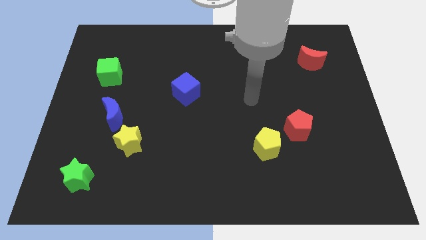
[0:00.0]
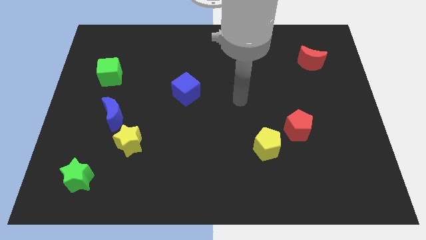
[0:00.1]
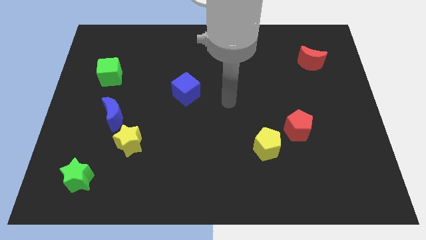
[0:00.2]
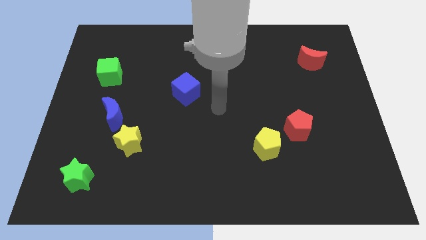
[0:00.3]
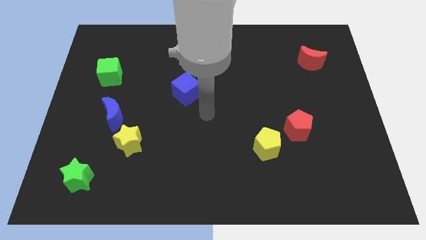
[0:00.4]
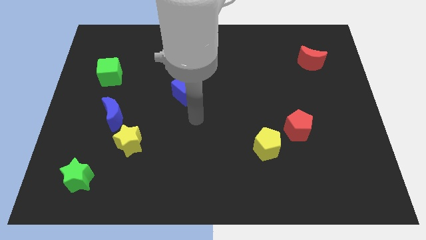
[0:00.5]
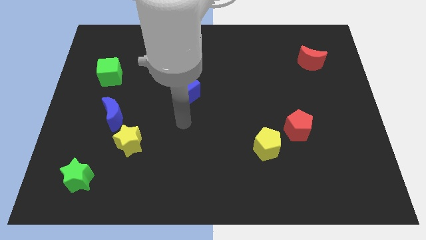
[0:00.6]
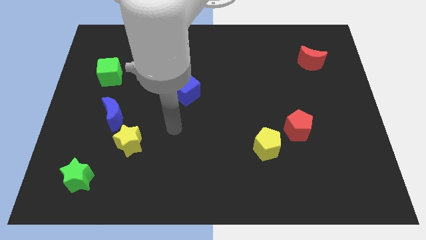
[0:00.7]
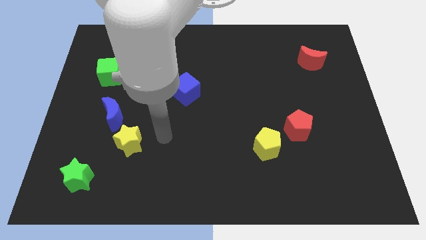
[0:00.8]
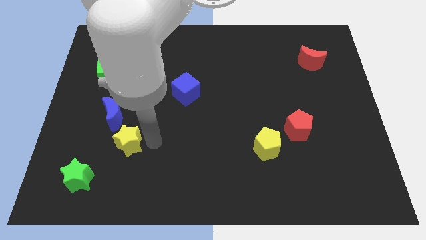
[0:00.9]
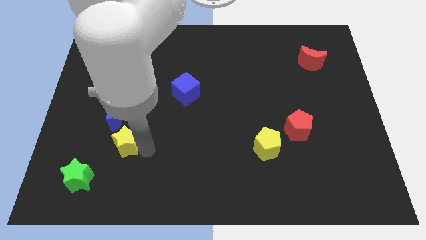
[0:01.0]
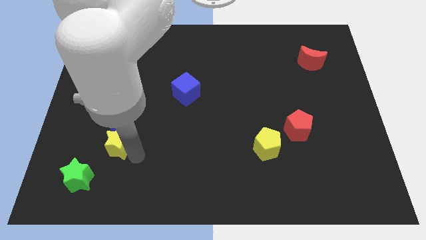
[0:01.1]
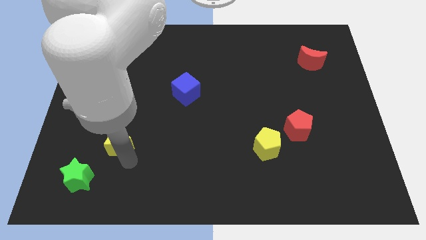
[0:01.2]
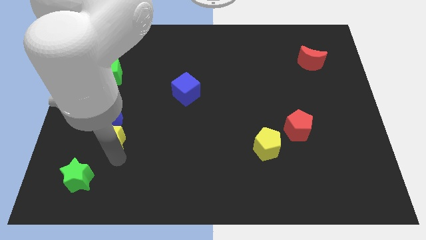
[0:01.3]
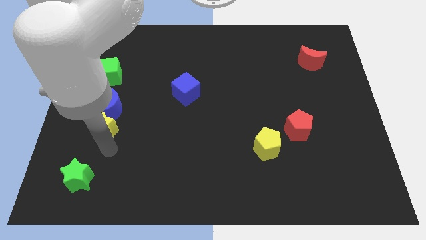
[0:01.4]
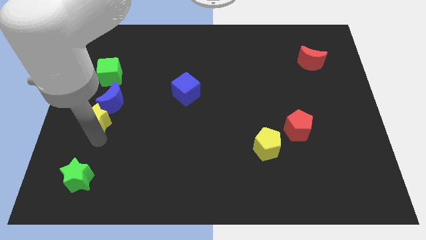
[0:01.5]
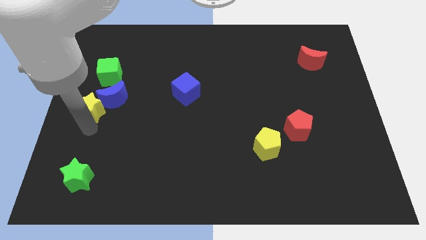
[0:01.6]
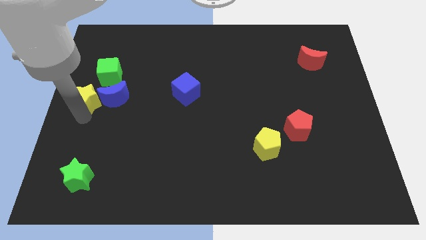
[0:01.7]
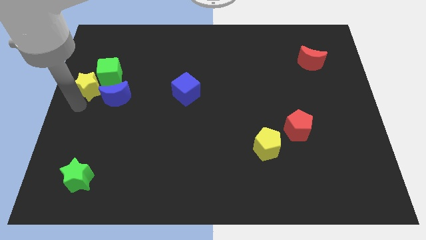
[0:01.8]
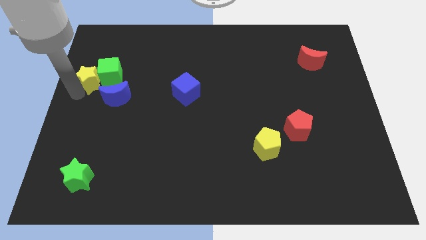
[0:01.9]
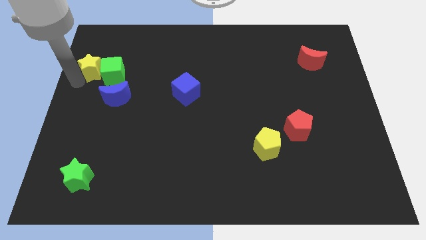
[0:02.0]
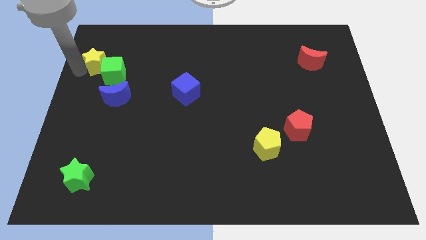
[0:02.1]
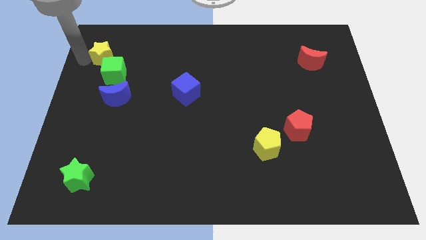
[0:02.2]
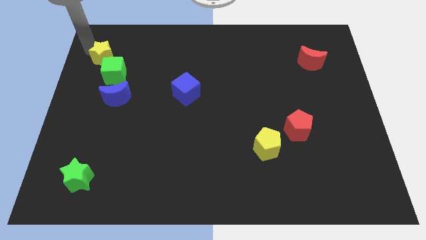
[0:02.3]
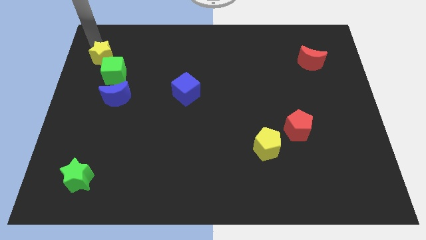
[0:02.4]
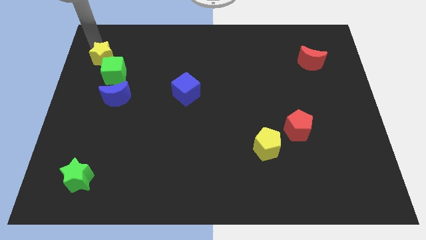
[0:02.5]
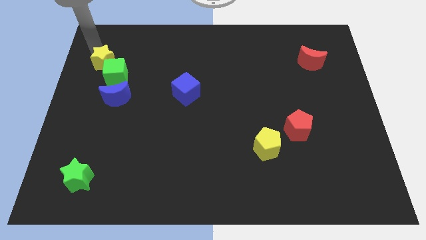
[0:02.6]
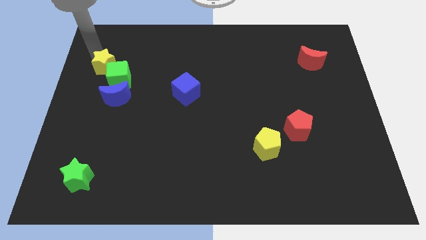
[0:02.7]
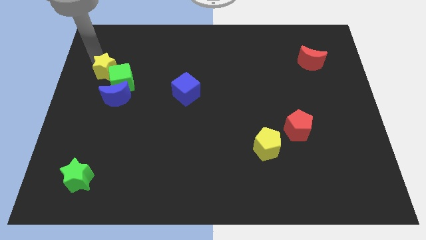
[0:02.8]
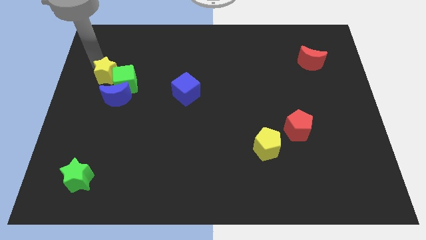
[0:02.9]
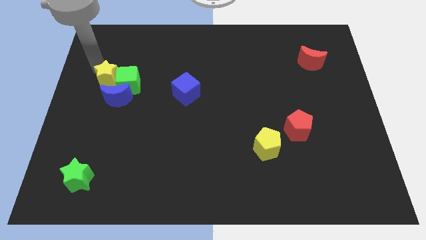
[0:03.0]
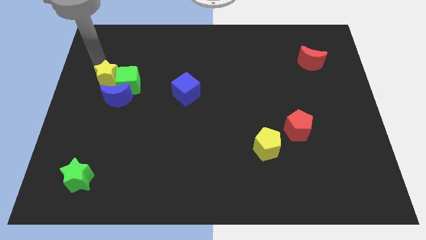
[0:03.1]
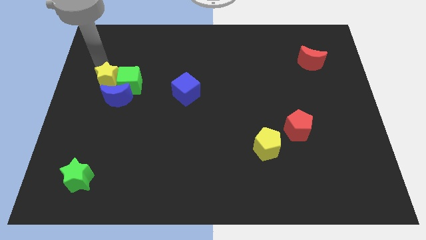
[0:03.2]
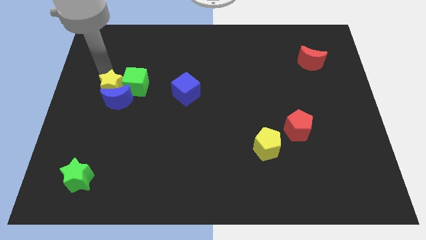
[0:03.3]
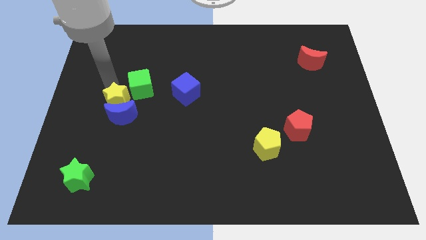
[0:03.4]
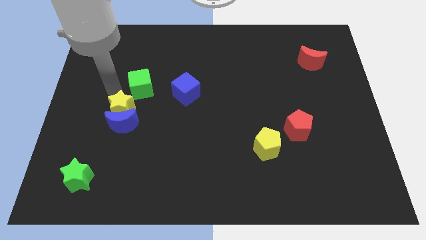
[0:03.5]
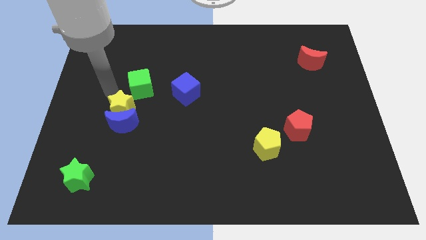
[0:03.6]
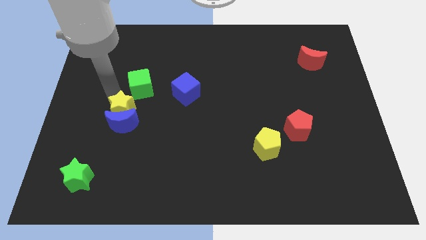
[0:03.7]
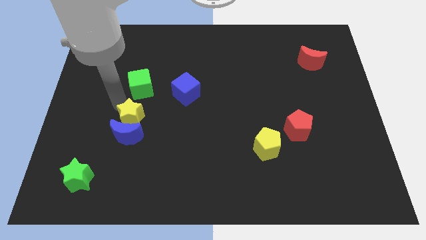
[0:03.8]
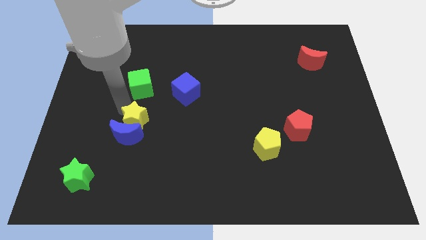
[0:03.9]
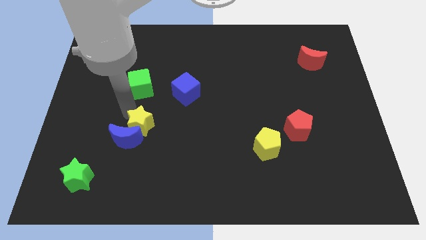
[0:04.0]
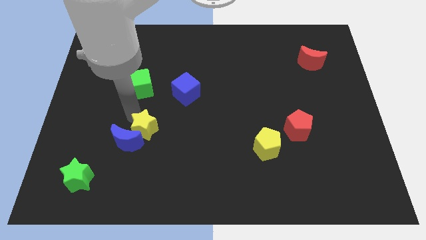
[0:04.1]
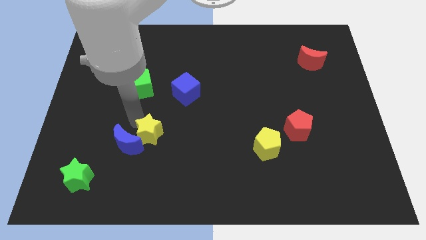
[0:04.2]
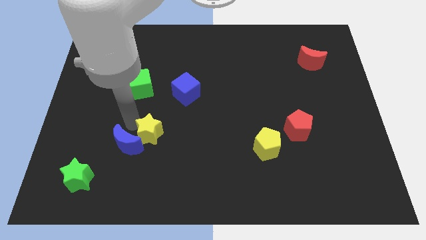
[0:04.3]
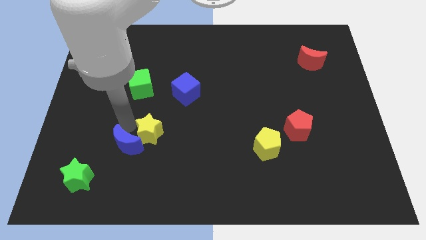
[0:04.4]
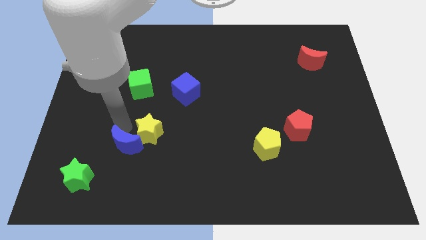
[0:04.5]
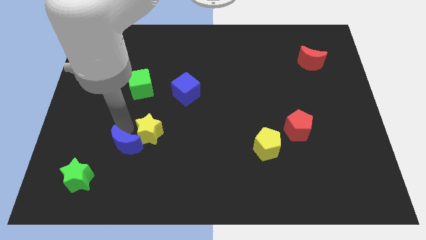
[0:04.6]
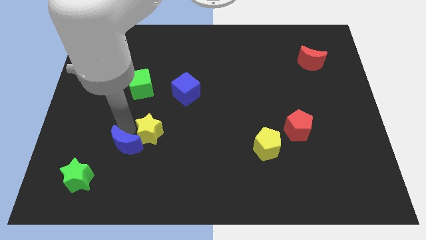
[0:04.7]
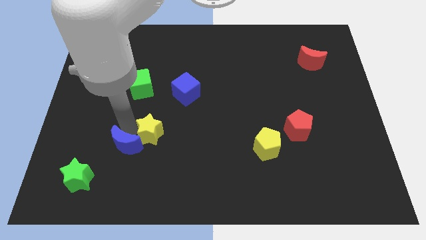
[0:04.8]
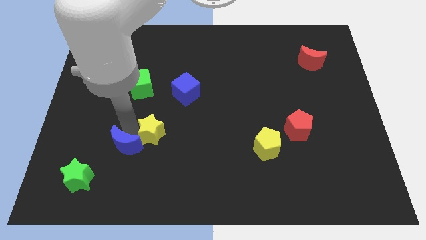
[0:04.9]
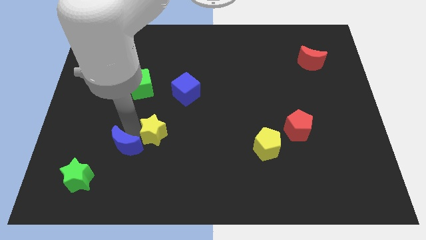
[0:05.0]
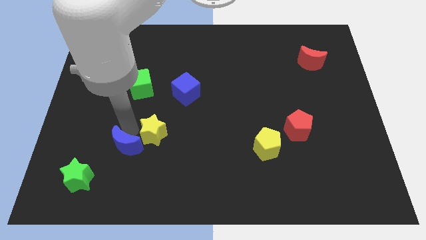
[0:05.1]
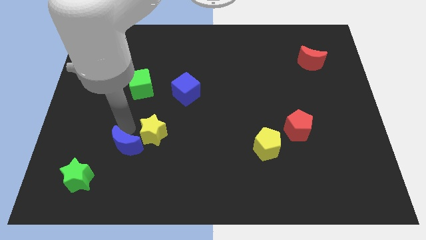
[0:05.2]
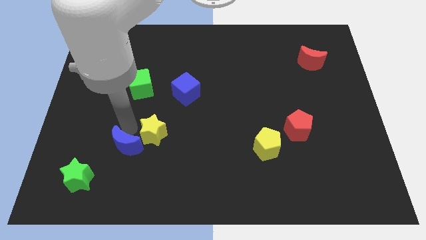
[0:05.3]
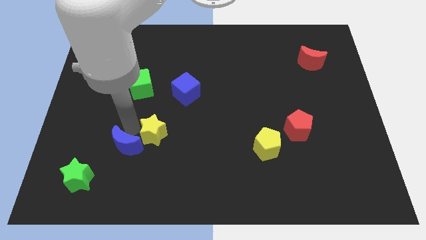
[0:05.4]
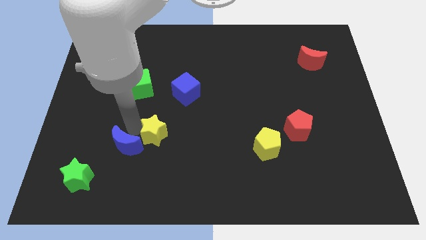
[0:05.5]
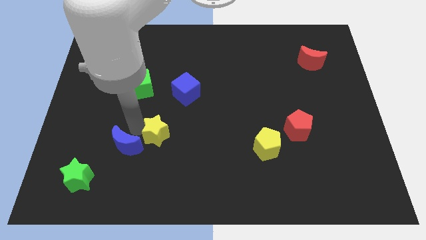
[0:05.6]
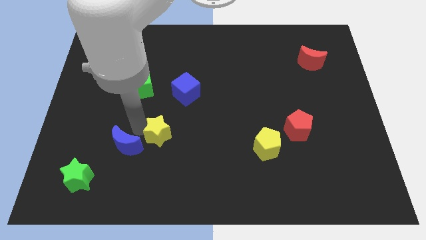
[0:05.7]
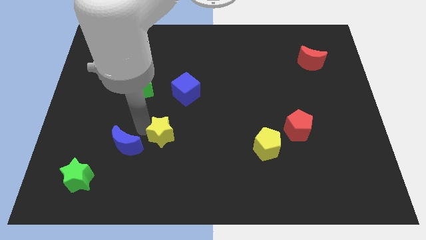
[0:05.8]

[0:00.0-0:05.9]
slightly push the yellow star right

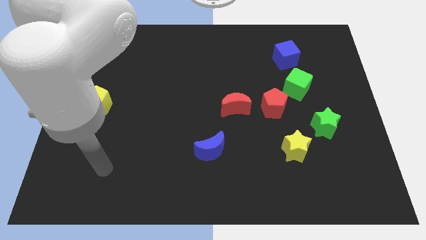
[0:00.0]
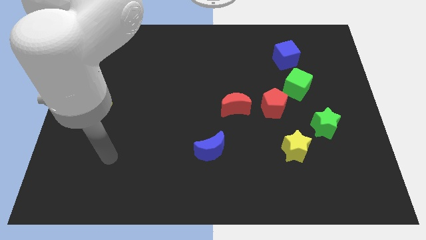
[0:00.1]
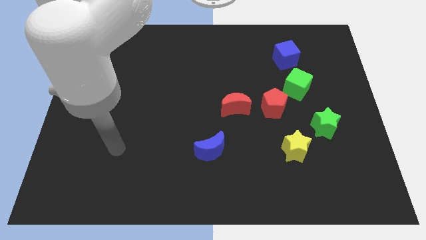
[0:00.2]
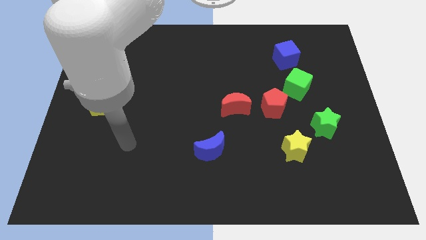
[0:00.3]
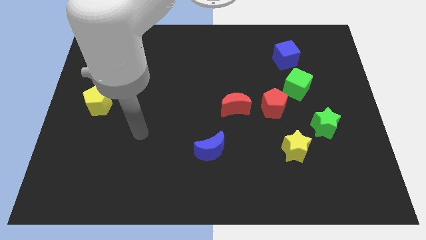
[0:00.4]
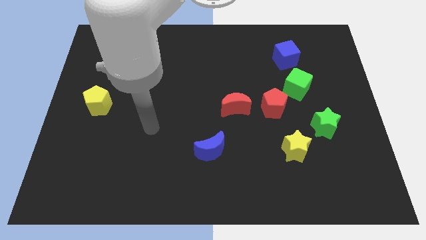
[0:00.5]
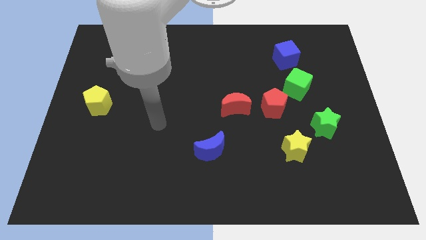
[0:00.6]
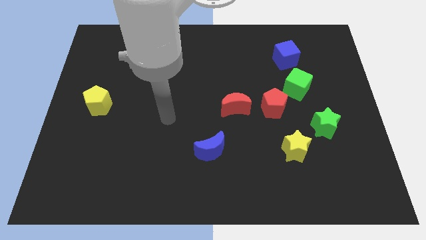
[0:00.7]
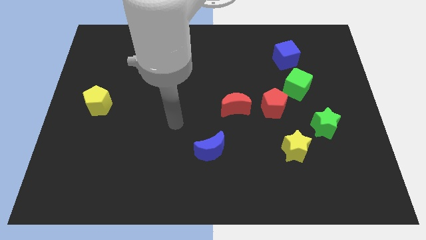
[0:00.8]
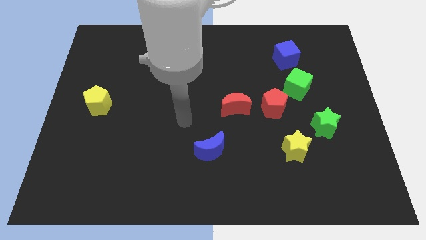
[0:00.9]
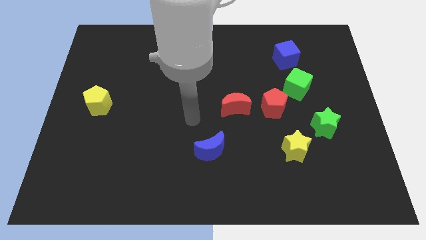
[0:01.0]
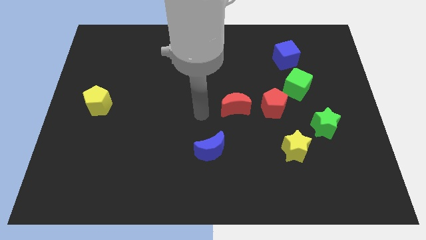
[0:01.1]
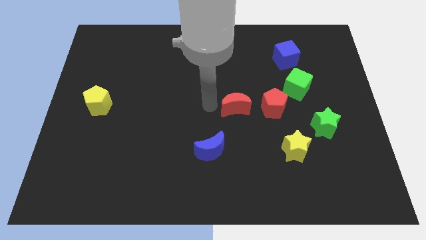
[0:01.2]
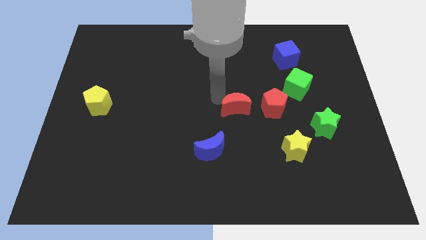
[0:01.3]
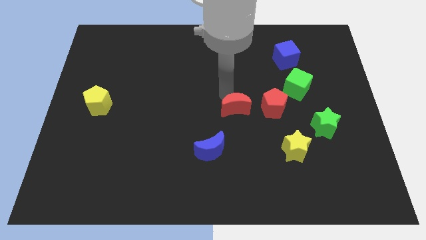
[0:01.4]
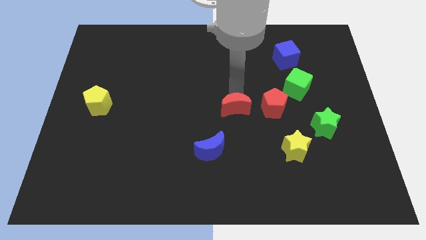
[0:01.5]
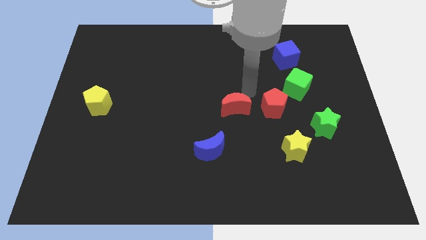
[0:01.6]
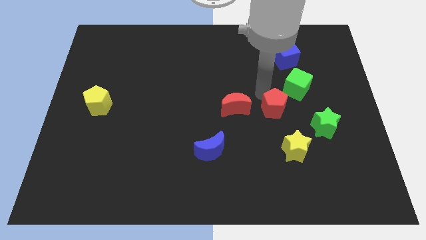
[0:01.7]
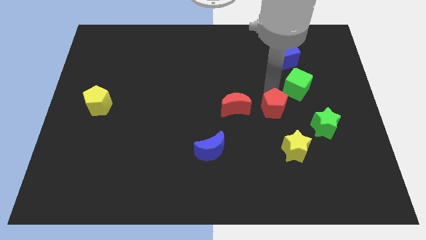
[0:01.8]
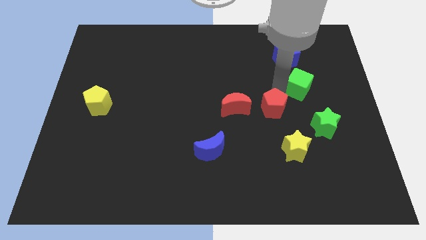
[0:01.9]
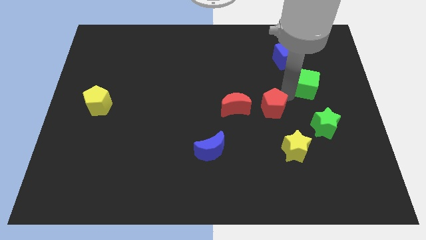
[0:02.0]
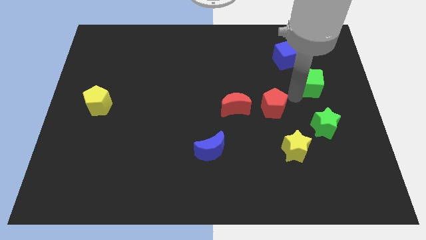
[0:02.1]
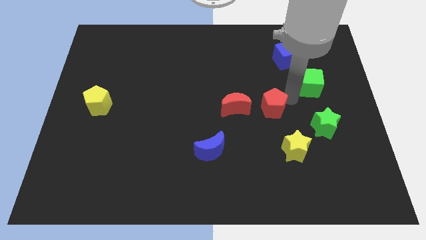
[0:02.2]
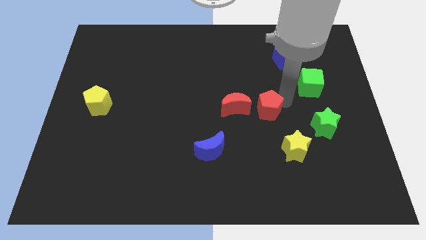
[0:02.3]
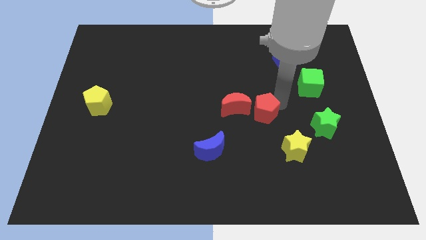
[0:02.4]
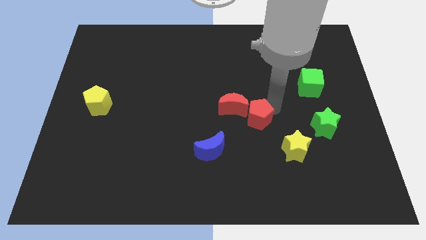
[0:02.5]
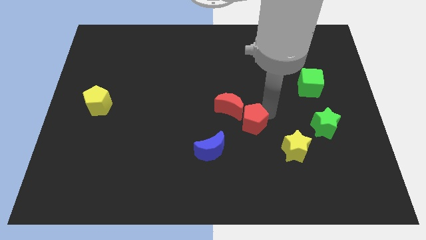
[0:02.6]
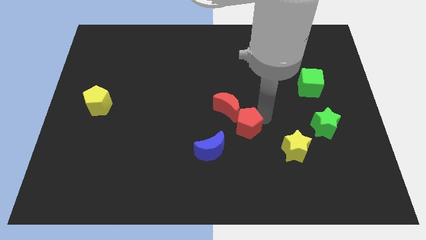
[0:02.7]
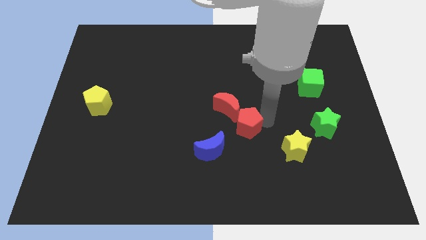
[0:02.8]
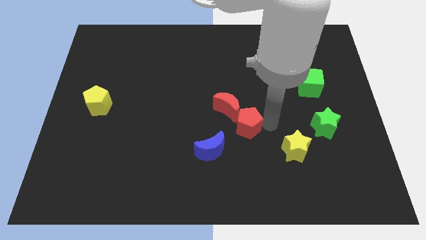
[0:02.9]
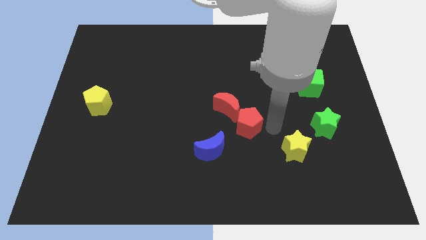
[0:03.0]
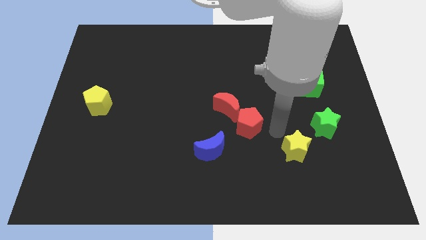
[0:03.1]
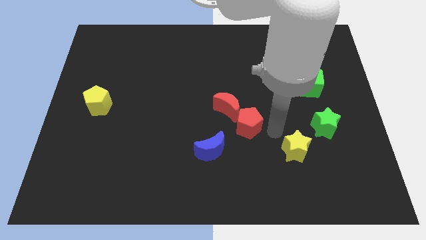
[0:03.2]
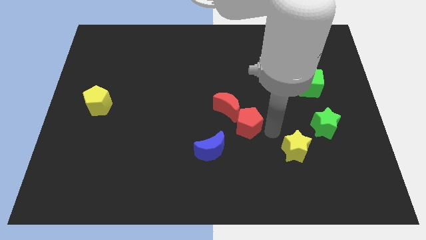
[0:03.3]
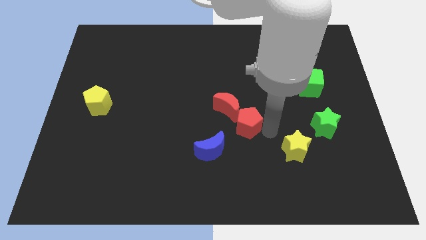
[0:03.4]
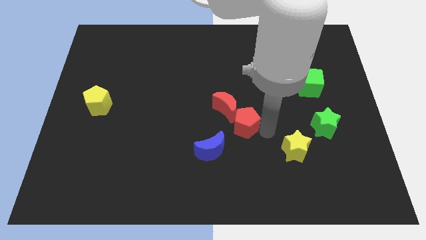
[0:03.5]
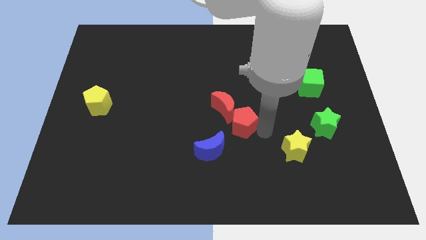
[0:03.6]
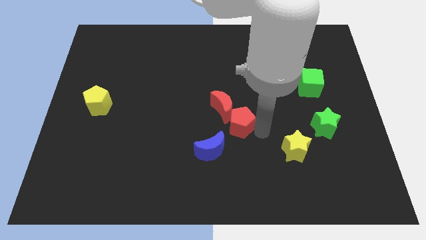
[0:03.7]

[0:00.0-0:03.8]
slightly push the red pentagon to the left
